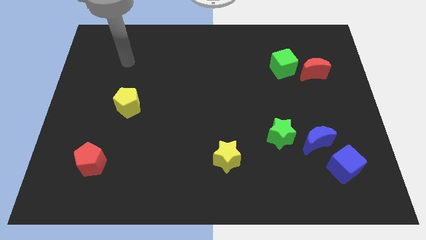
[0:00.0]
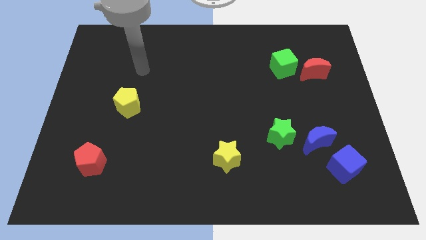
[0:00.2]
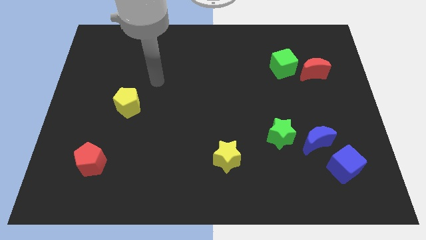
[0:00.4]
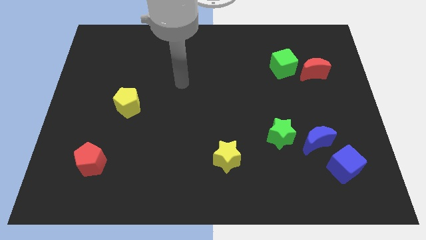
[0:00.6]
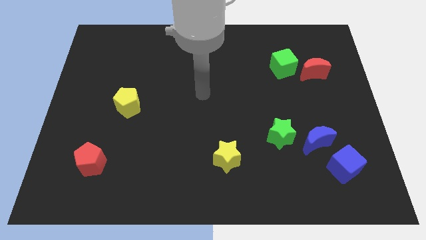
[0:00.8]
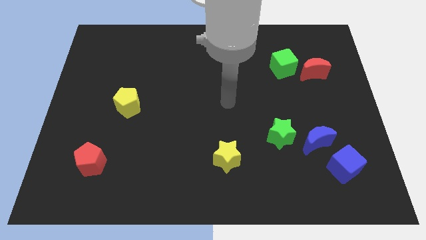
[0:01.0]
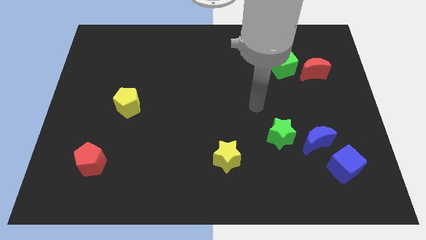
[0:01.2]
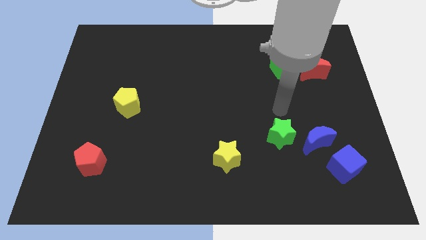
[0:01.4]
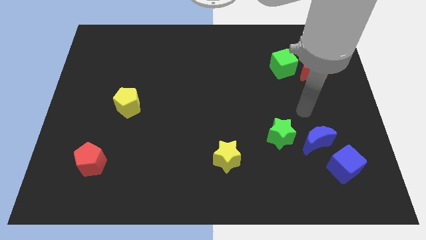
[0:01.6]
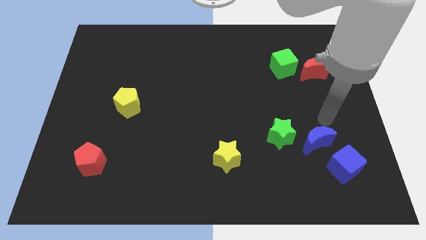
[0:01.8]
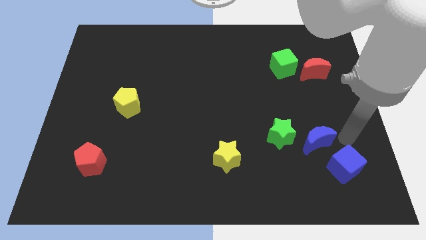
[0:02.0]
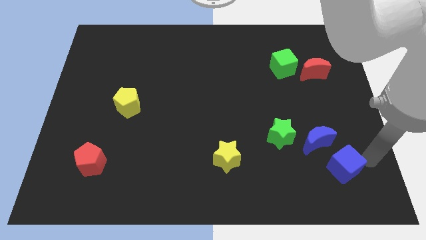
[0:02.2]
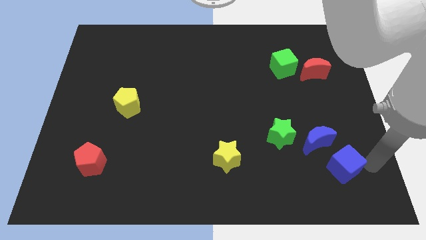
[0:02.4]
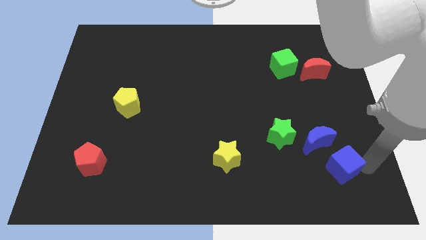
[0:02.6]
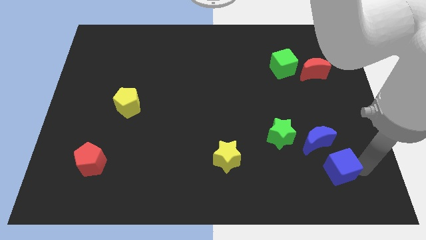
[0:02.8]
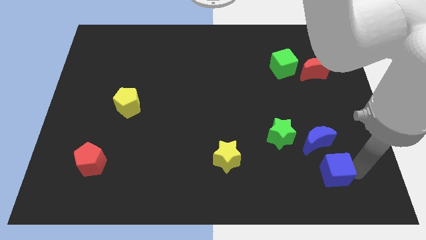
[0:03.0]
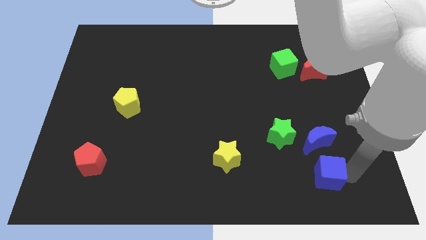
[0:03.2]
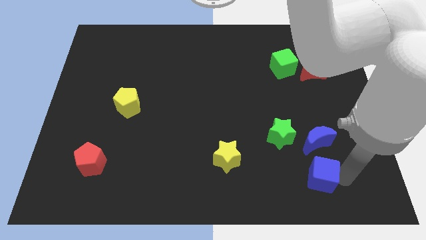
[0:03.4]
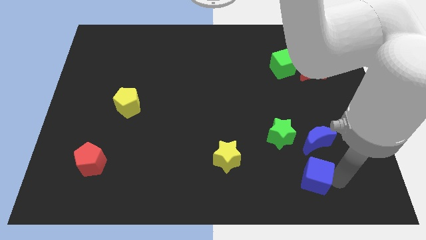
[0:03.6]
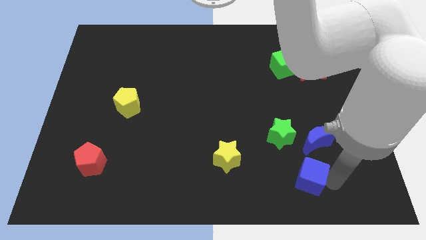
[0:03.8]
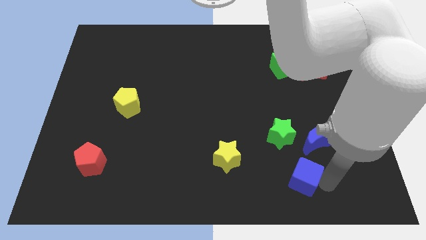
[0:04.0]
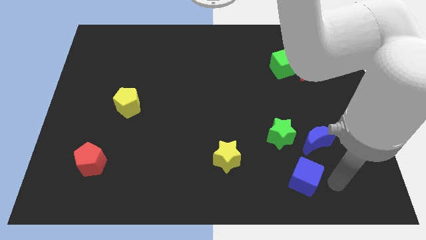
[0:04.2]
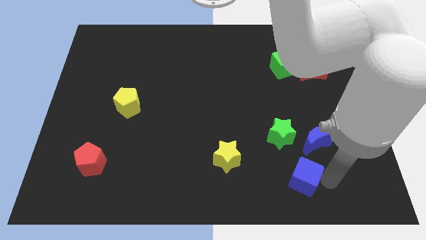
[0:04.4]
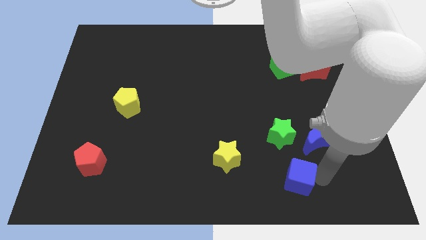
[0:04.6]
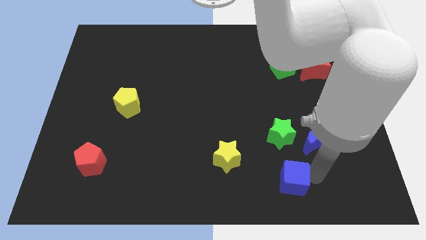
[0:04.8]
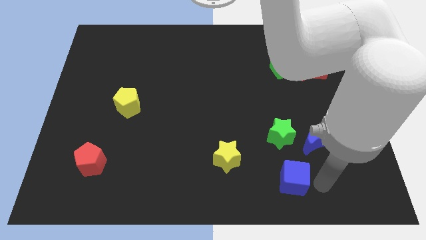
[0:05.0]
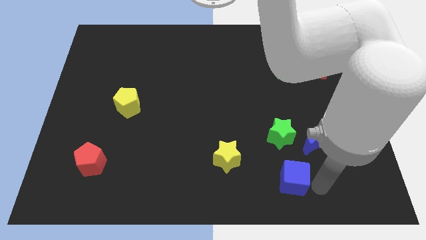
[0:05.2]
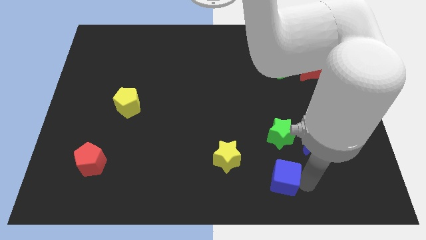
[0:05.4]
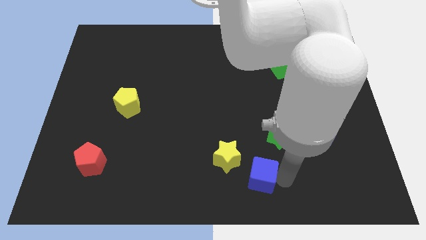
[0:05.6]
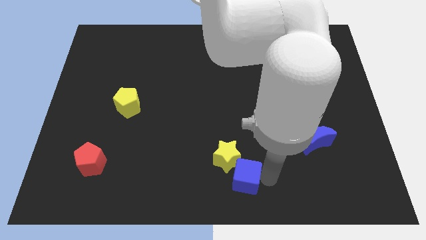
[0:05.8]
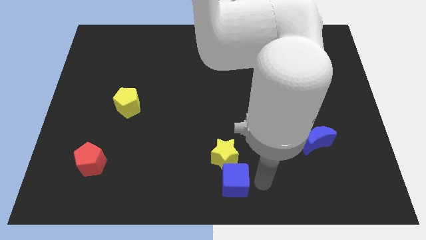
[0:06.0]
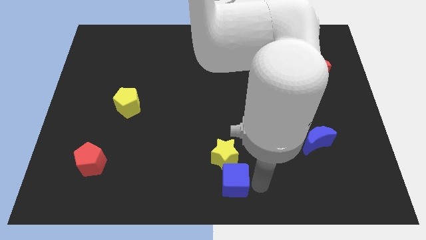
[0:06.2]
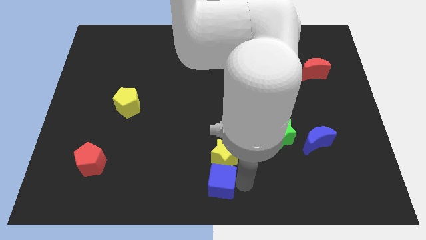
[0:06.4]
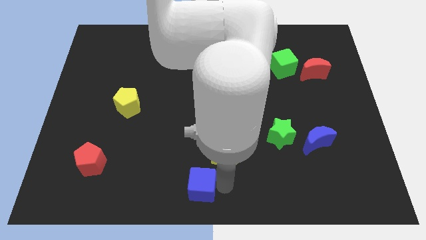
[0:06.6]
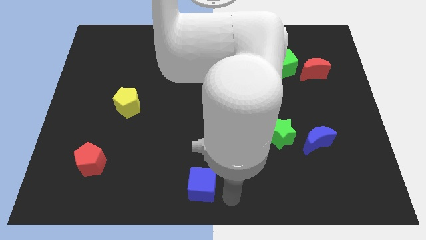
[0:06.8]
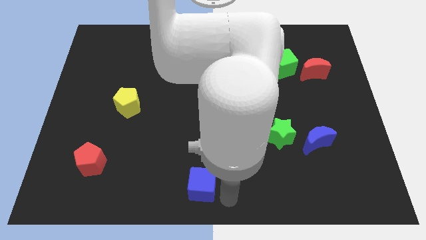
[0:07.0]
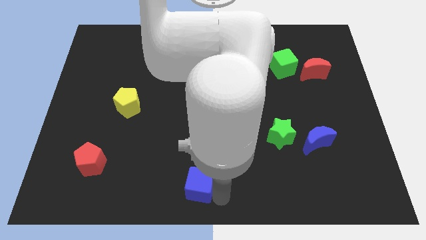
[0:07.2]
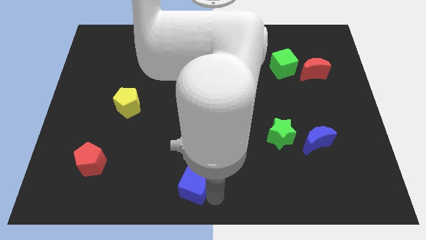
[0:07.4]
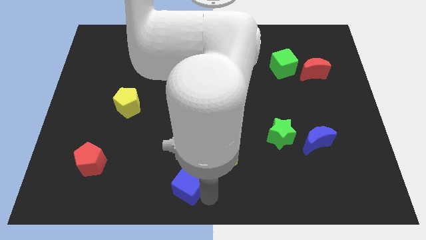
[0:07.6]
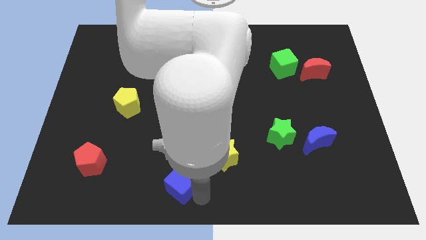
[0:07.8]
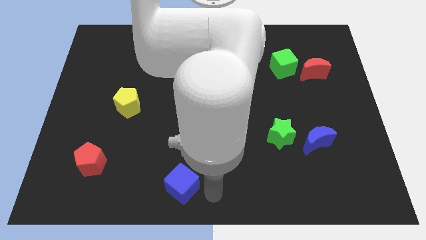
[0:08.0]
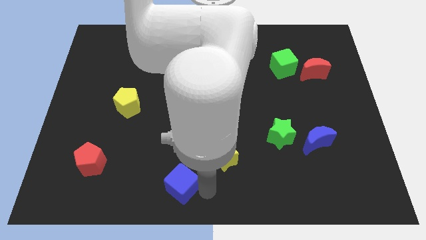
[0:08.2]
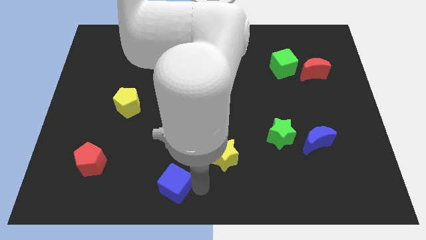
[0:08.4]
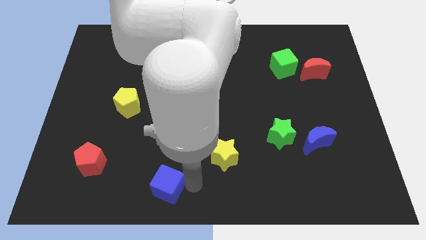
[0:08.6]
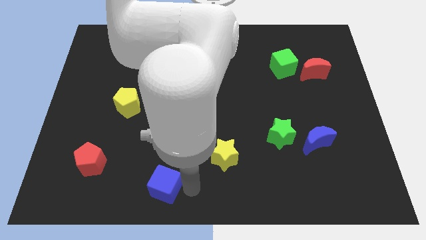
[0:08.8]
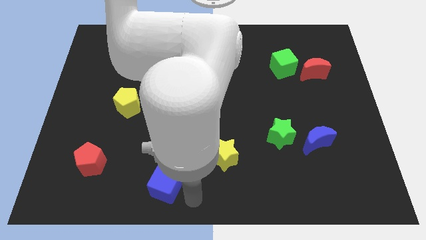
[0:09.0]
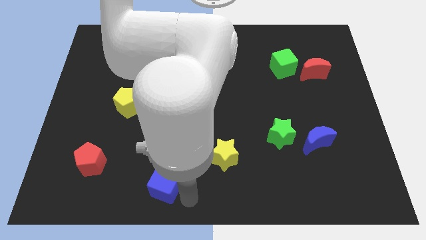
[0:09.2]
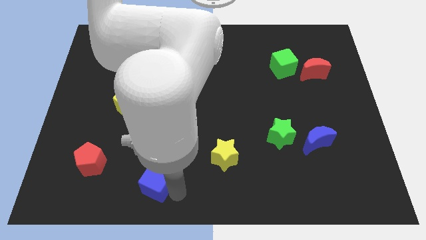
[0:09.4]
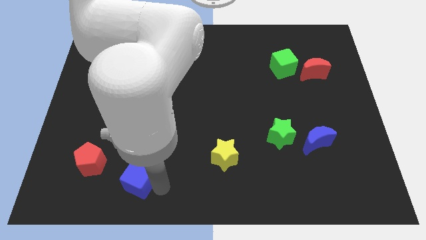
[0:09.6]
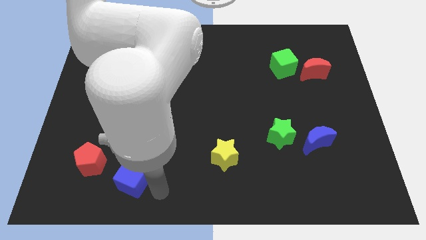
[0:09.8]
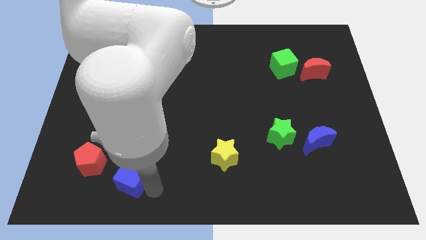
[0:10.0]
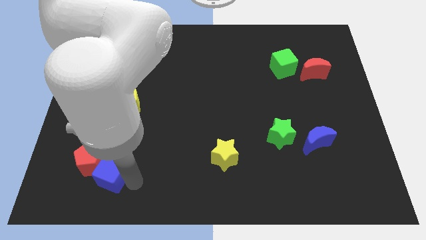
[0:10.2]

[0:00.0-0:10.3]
push the blue cube close to the red pentagon

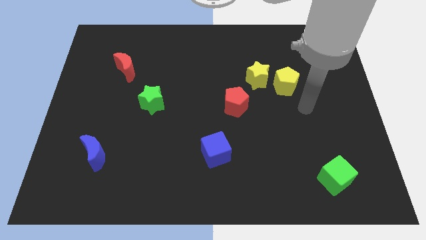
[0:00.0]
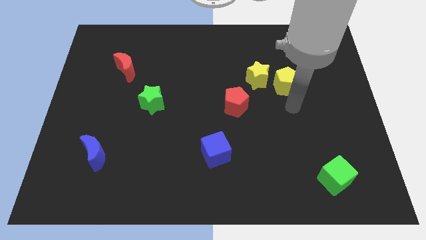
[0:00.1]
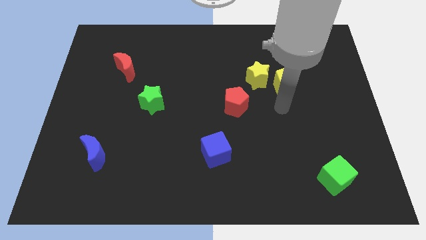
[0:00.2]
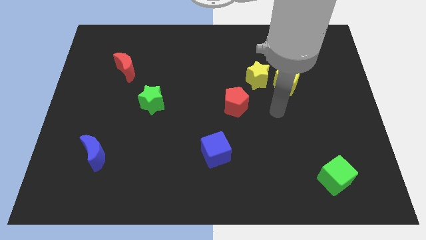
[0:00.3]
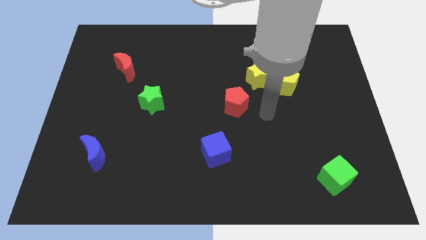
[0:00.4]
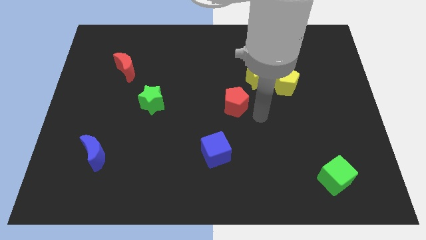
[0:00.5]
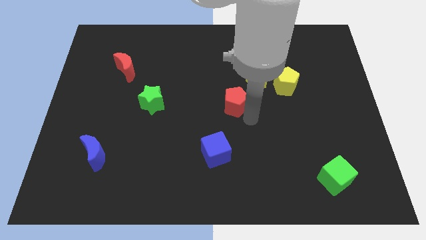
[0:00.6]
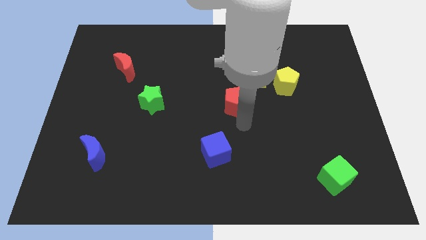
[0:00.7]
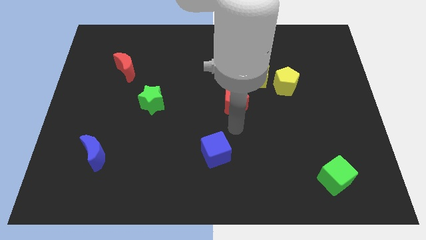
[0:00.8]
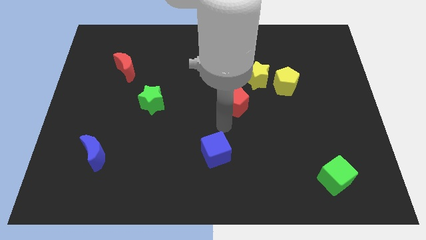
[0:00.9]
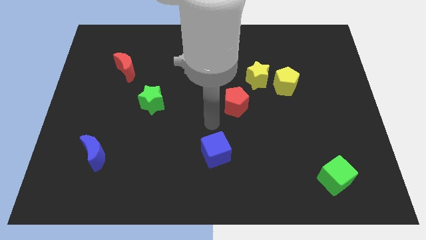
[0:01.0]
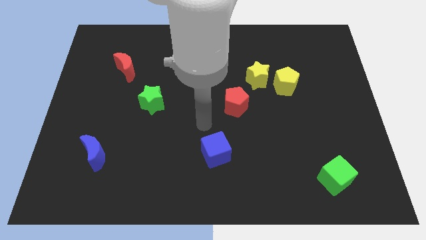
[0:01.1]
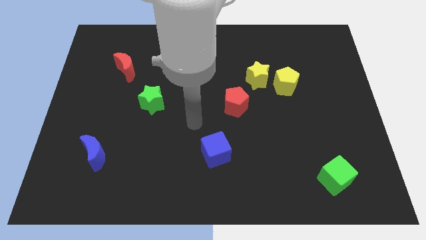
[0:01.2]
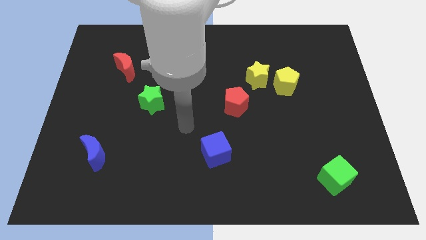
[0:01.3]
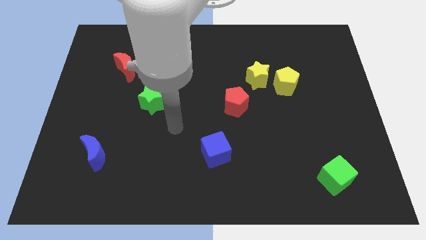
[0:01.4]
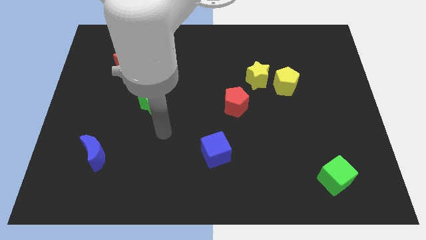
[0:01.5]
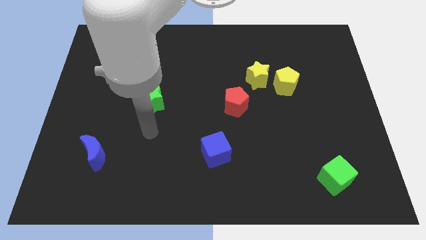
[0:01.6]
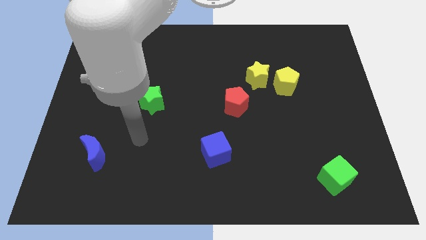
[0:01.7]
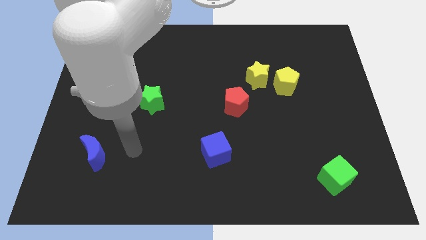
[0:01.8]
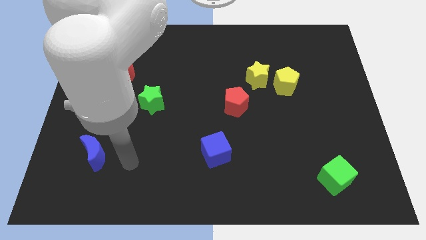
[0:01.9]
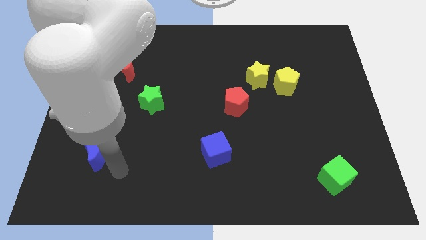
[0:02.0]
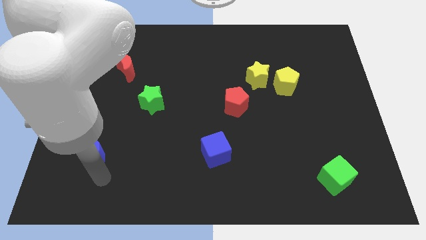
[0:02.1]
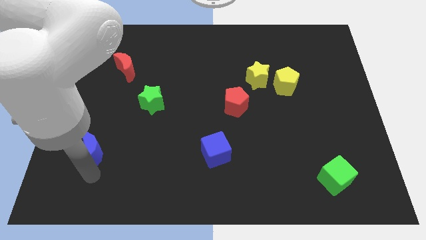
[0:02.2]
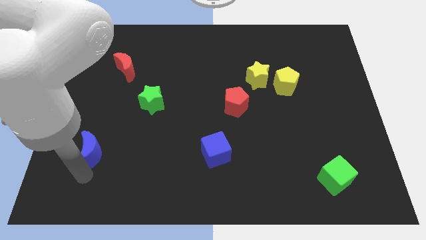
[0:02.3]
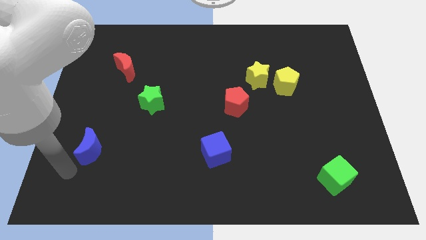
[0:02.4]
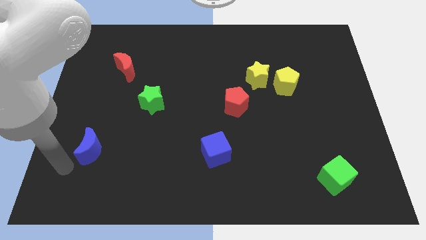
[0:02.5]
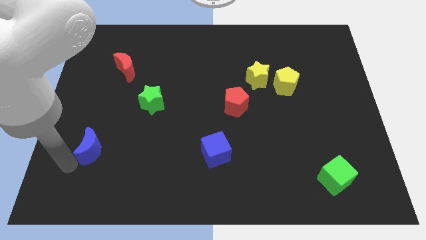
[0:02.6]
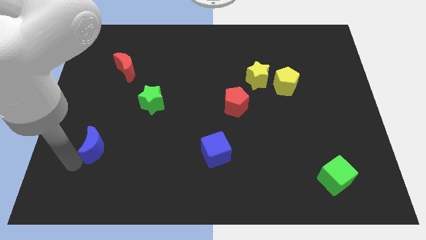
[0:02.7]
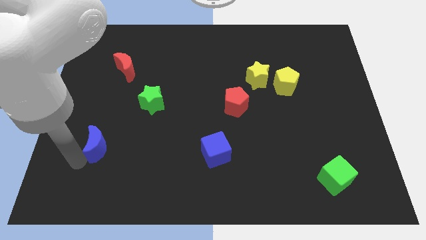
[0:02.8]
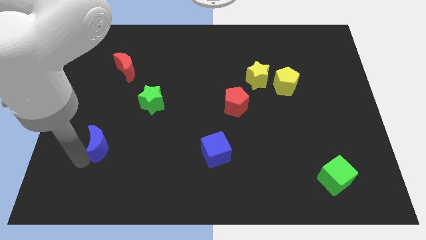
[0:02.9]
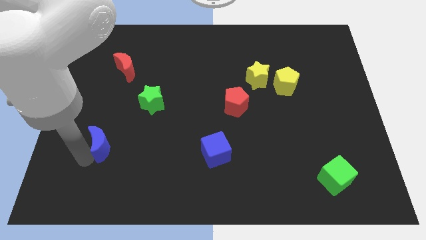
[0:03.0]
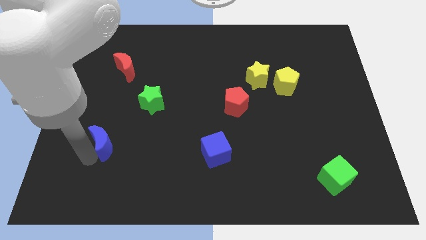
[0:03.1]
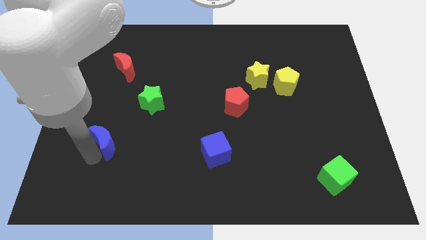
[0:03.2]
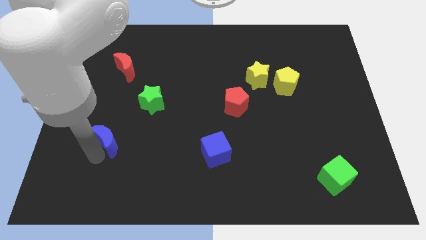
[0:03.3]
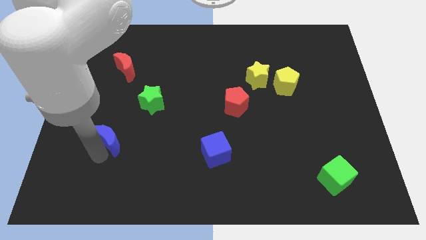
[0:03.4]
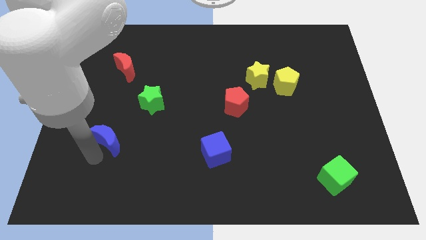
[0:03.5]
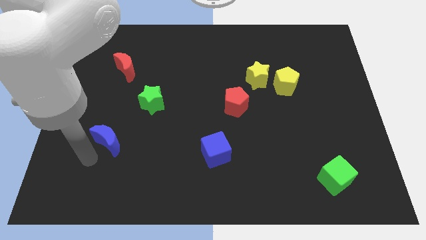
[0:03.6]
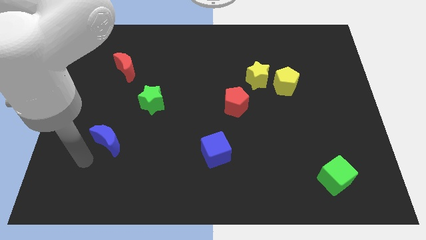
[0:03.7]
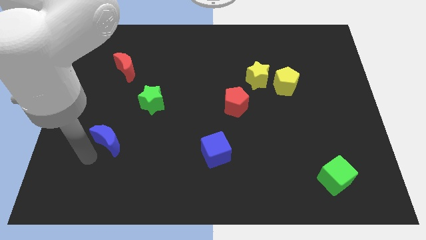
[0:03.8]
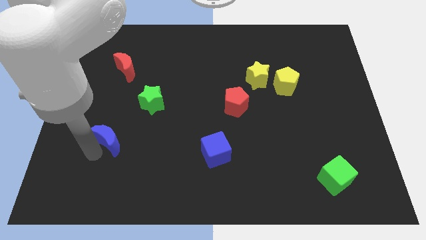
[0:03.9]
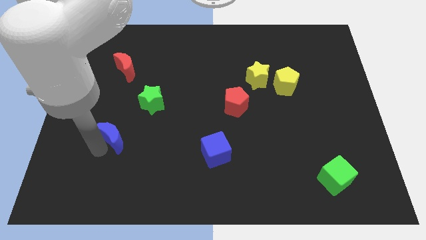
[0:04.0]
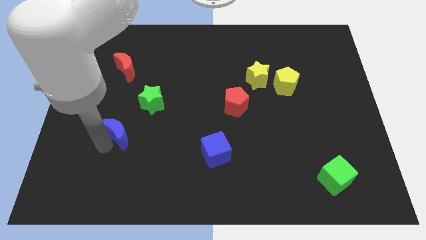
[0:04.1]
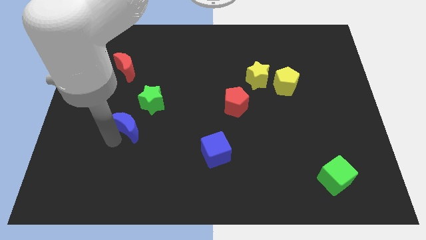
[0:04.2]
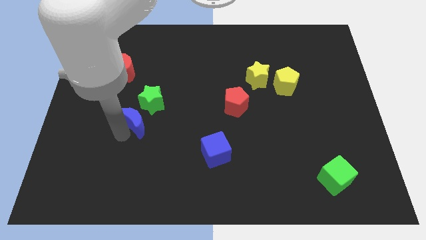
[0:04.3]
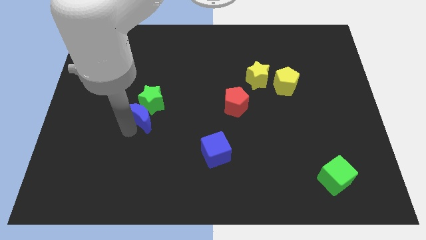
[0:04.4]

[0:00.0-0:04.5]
push the blue moon towards the green star
